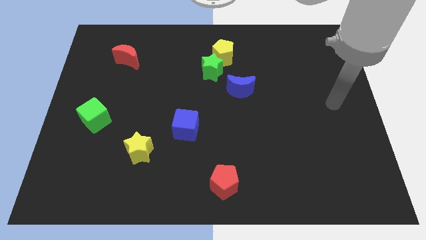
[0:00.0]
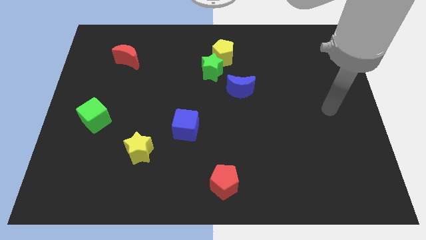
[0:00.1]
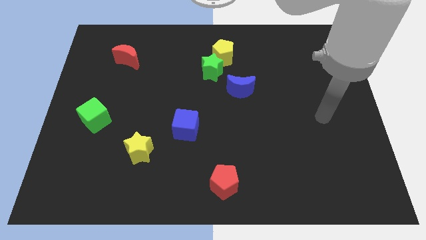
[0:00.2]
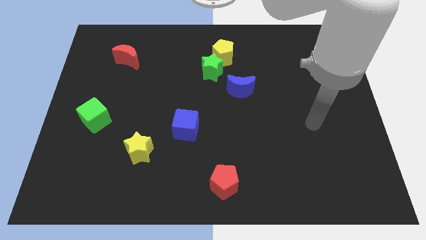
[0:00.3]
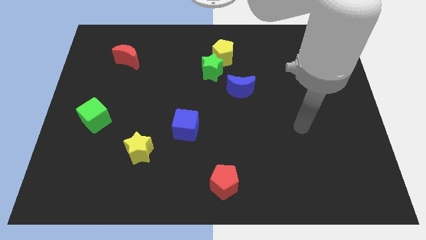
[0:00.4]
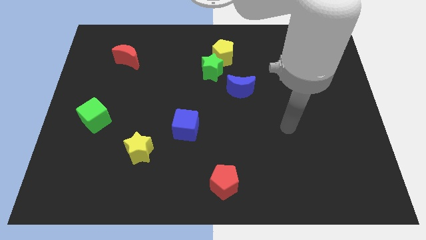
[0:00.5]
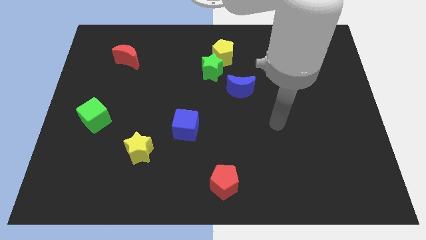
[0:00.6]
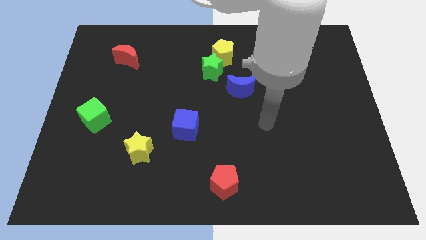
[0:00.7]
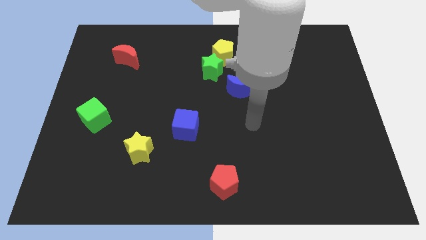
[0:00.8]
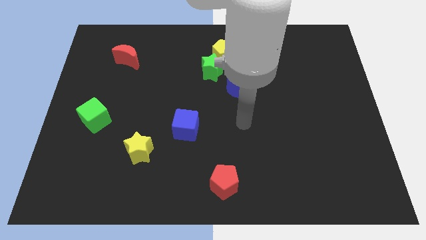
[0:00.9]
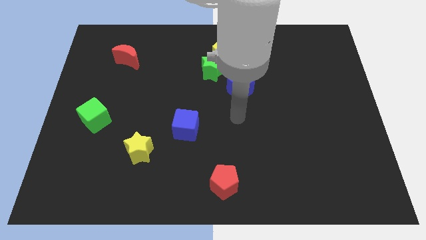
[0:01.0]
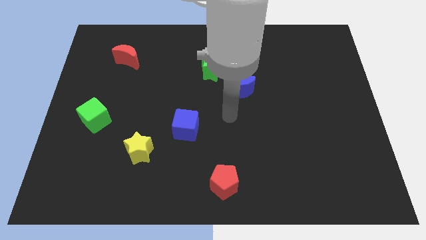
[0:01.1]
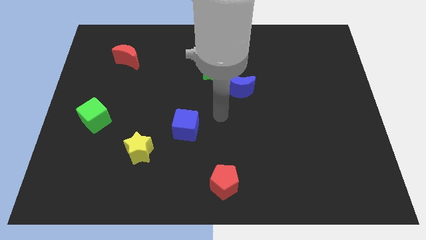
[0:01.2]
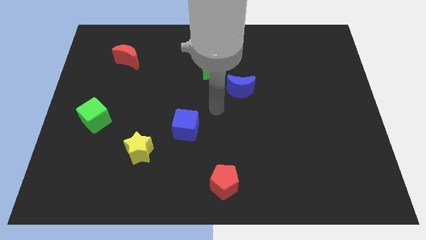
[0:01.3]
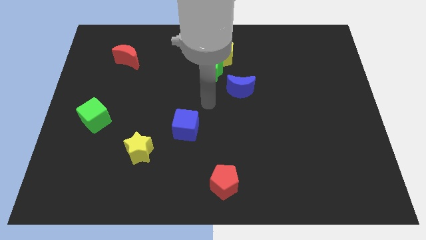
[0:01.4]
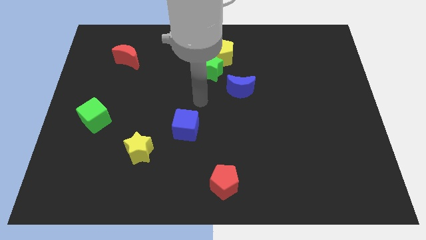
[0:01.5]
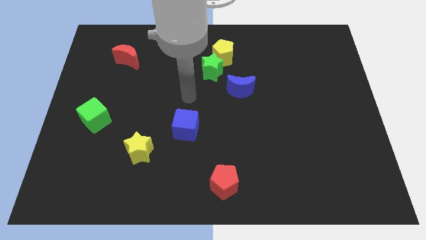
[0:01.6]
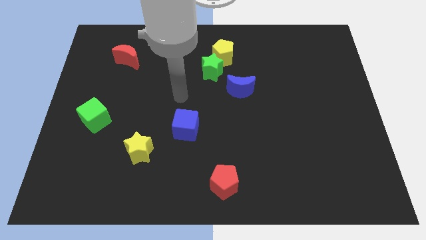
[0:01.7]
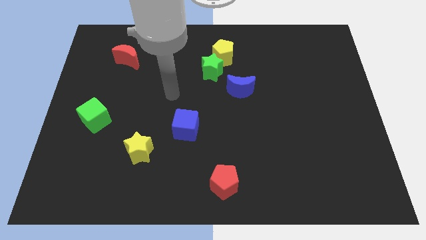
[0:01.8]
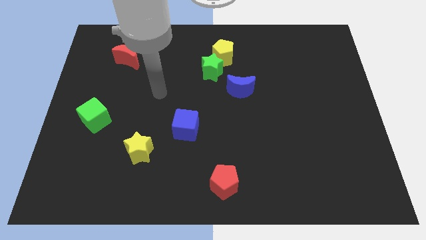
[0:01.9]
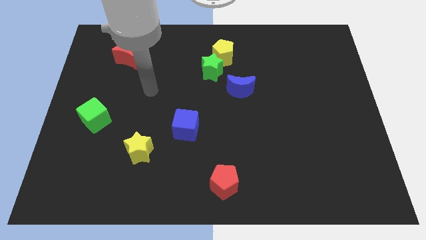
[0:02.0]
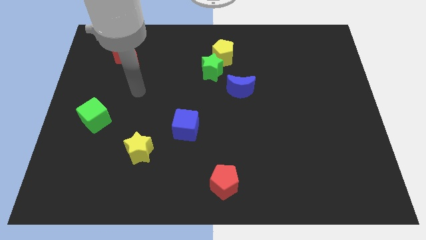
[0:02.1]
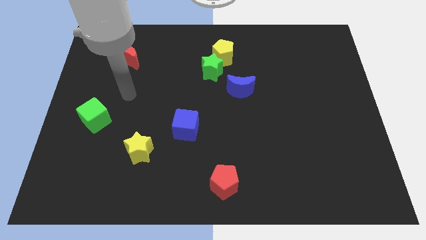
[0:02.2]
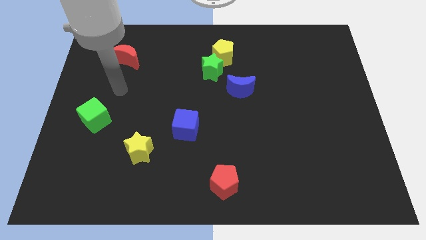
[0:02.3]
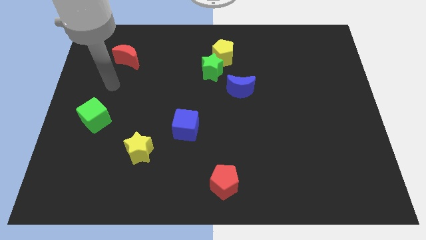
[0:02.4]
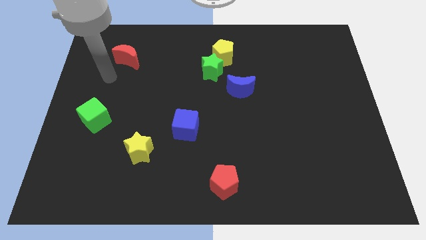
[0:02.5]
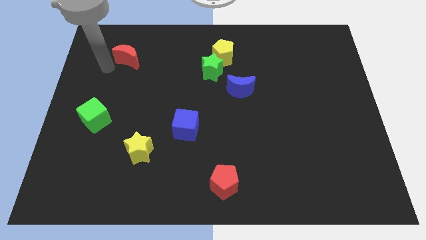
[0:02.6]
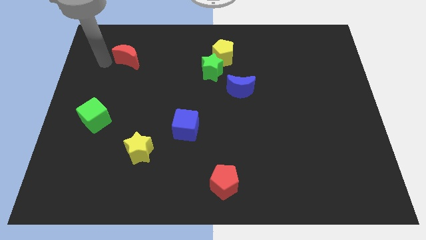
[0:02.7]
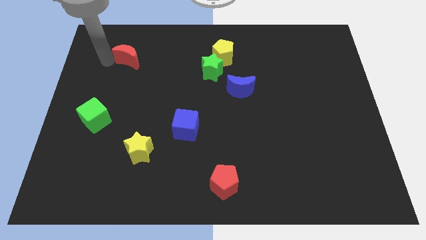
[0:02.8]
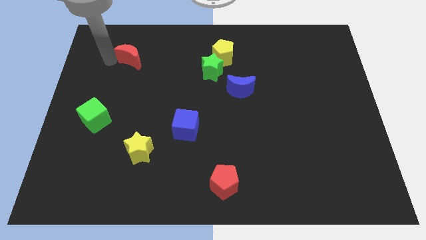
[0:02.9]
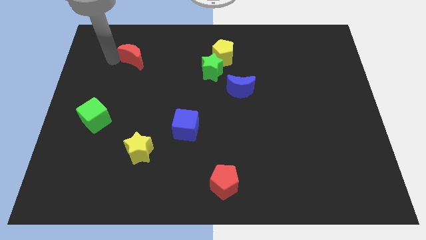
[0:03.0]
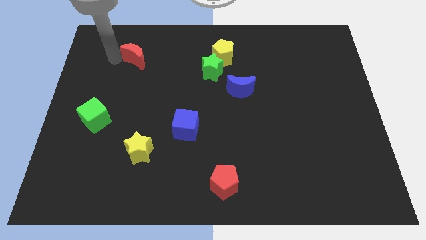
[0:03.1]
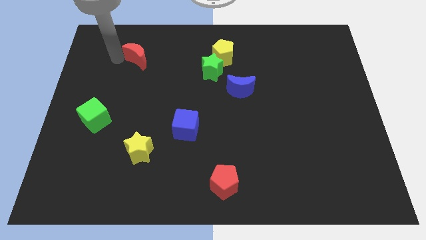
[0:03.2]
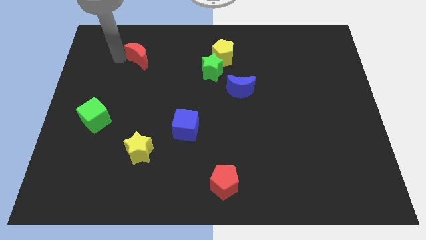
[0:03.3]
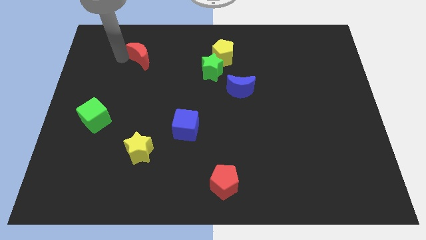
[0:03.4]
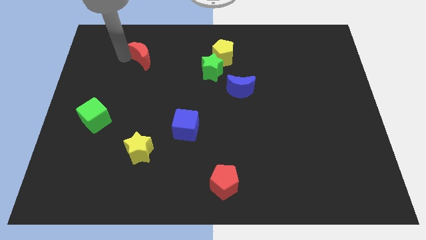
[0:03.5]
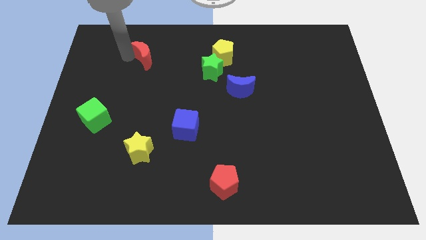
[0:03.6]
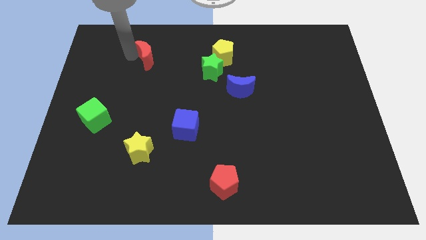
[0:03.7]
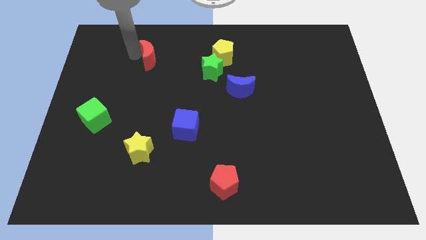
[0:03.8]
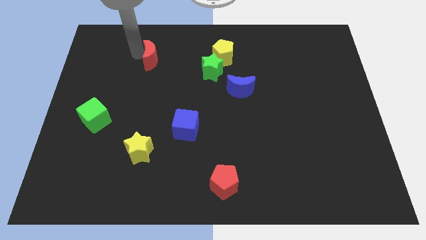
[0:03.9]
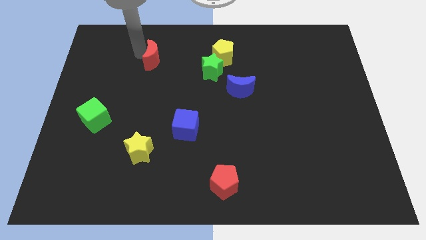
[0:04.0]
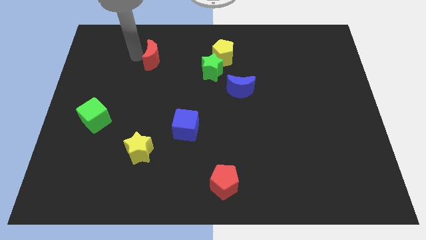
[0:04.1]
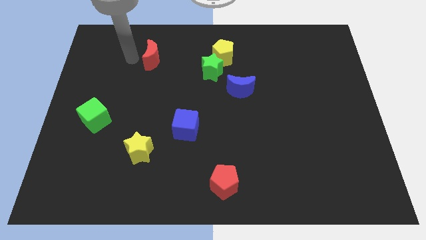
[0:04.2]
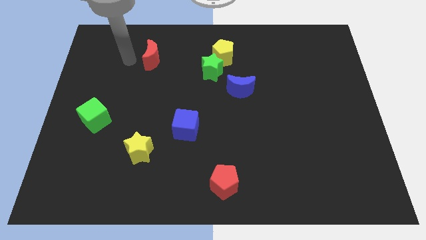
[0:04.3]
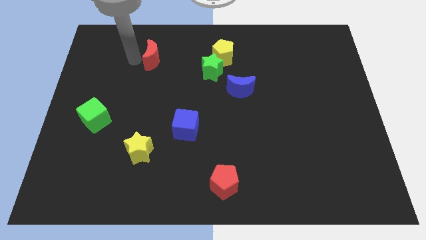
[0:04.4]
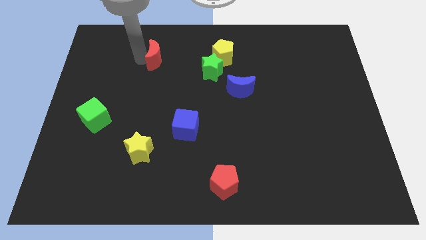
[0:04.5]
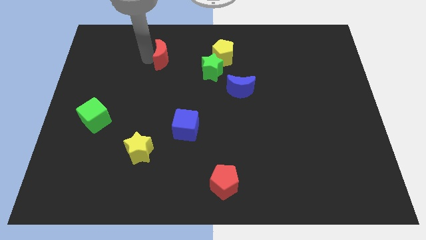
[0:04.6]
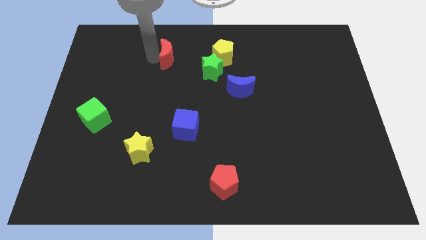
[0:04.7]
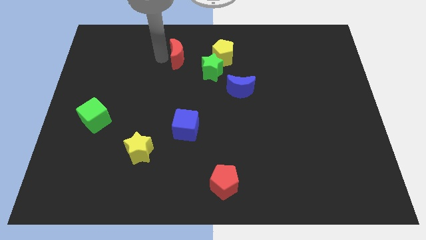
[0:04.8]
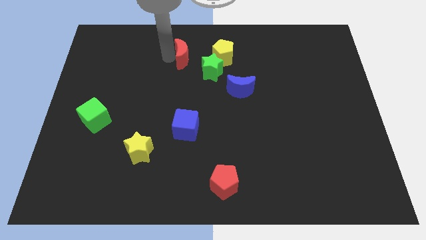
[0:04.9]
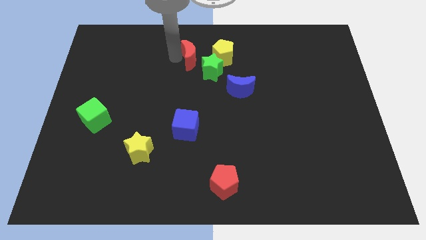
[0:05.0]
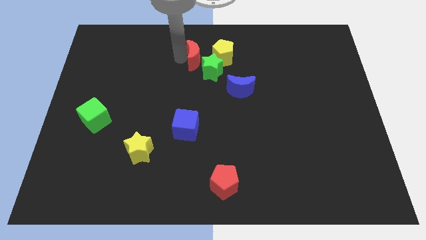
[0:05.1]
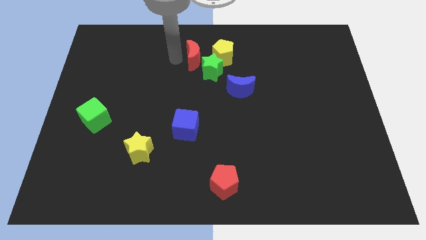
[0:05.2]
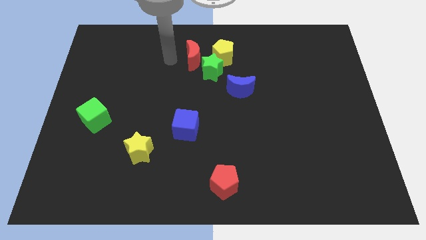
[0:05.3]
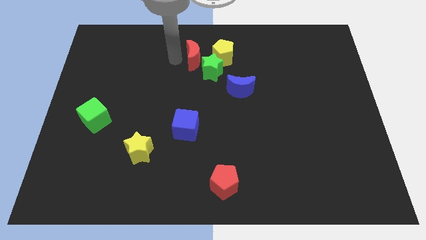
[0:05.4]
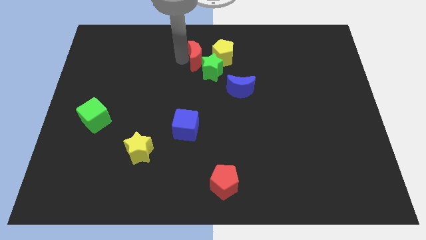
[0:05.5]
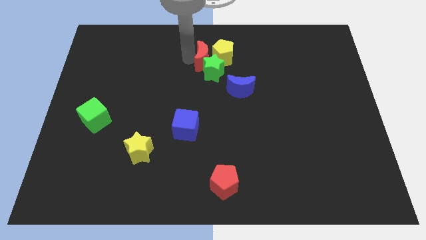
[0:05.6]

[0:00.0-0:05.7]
push the red moon next to the yellow pentagon

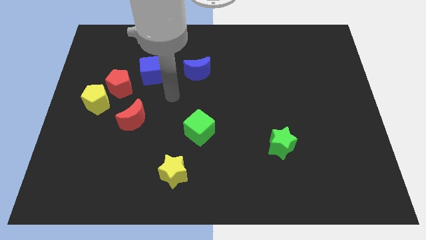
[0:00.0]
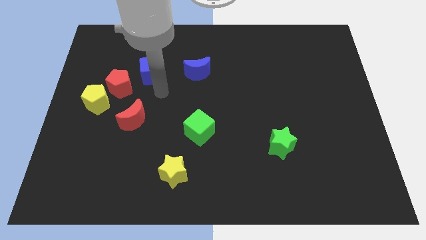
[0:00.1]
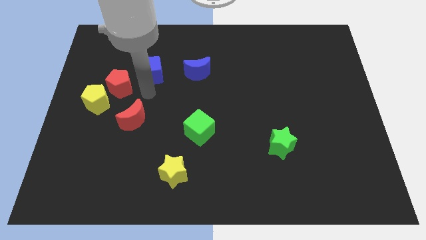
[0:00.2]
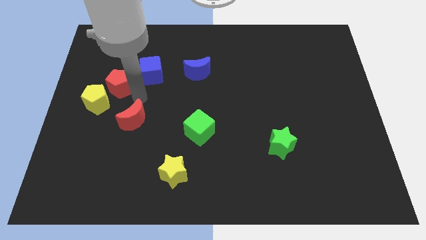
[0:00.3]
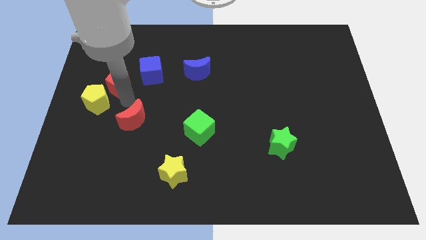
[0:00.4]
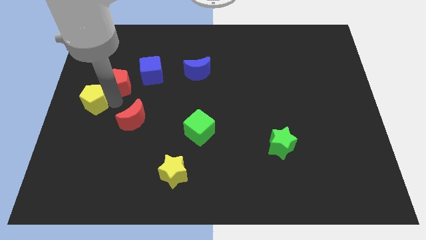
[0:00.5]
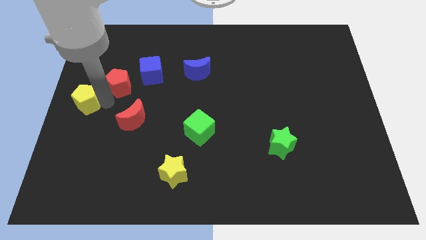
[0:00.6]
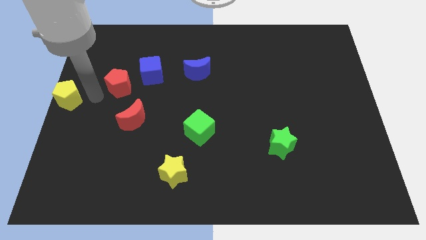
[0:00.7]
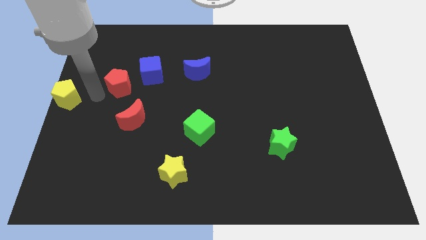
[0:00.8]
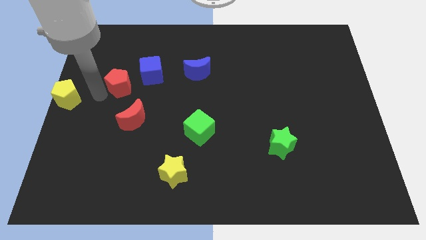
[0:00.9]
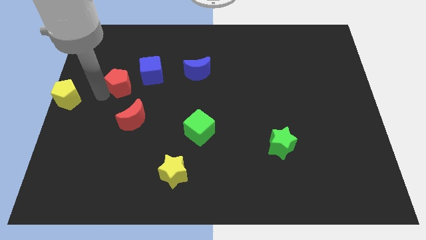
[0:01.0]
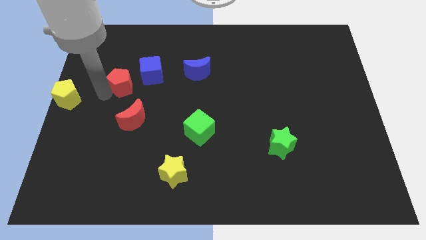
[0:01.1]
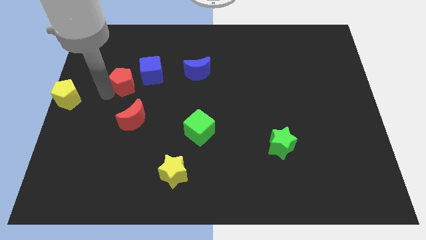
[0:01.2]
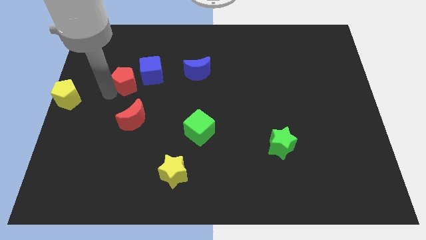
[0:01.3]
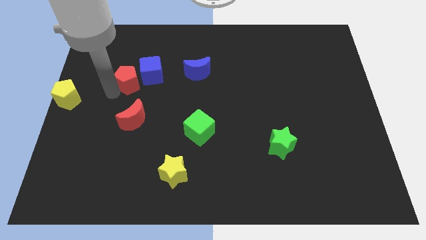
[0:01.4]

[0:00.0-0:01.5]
move the red pentagon close to the blue cube
